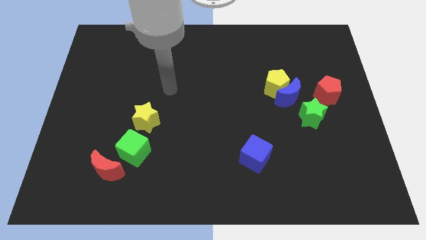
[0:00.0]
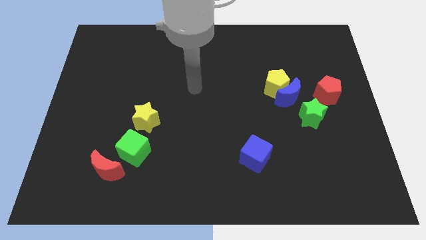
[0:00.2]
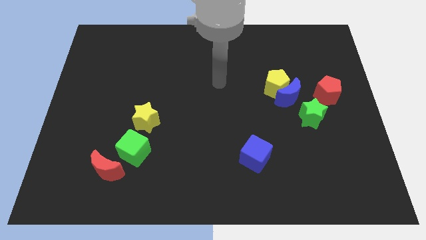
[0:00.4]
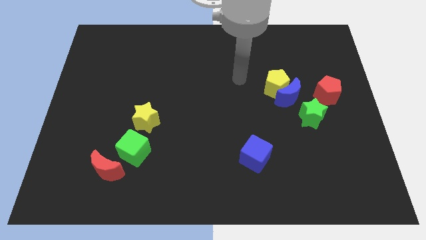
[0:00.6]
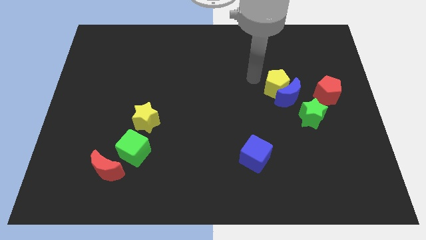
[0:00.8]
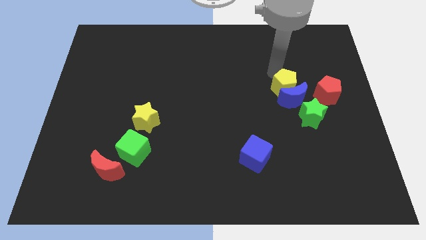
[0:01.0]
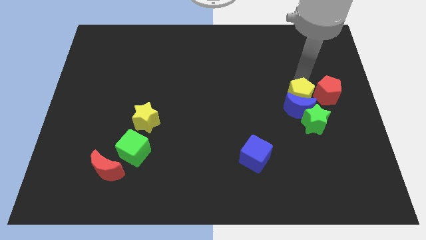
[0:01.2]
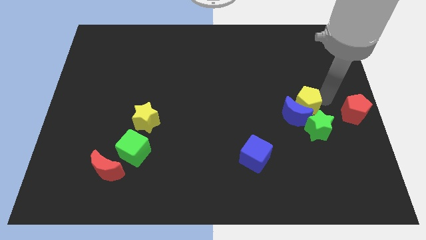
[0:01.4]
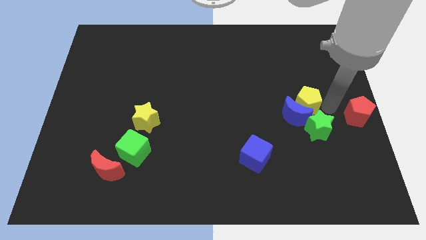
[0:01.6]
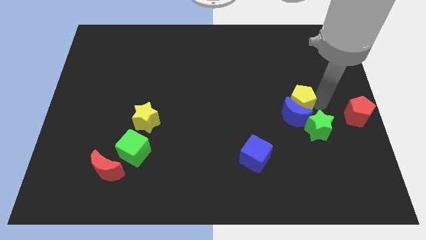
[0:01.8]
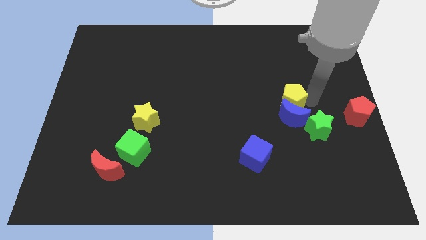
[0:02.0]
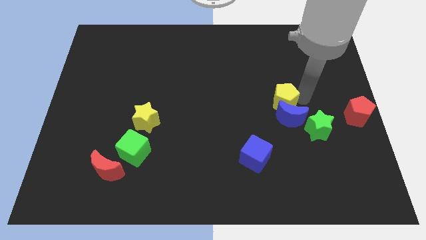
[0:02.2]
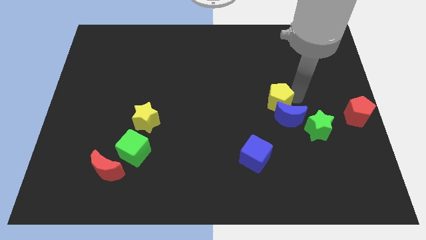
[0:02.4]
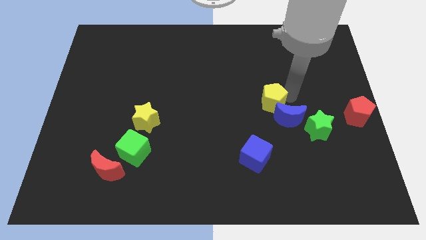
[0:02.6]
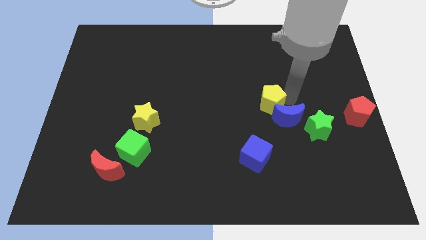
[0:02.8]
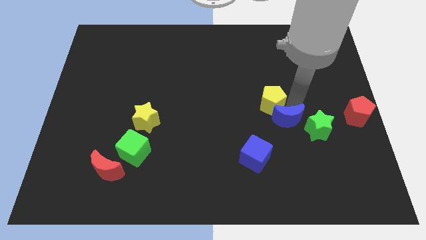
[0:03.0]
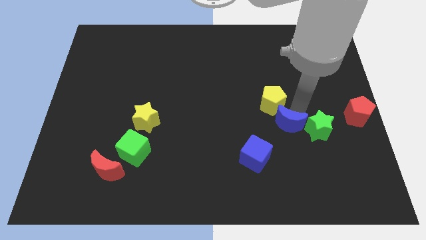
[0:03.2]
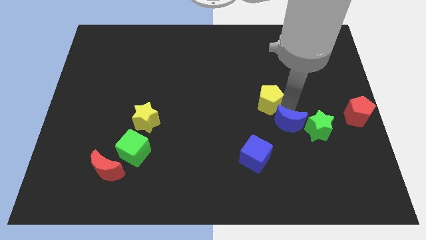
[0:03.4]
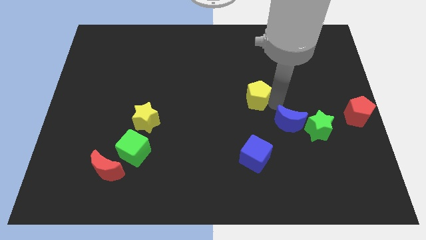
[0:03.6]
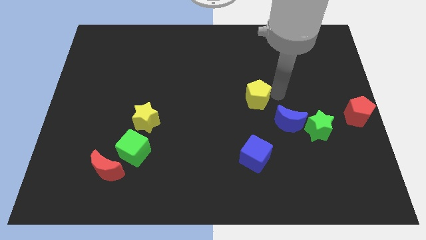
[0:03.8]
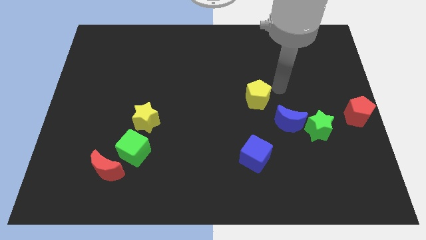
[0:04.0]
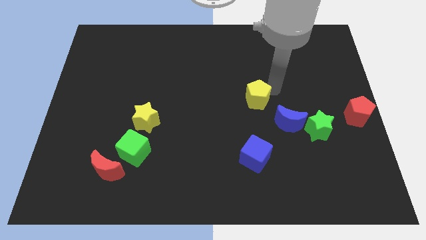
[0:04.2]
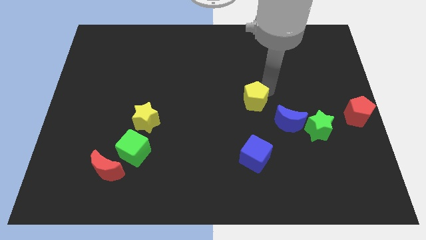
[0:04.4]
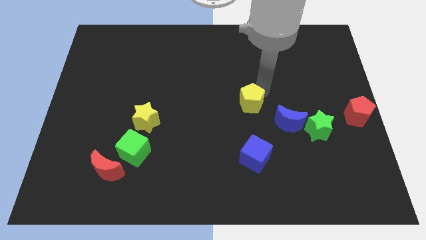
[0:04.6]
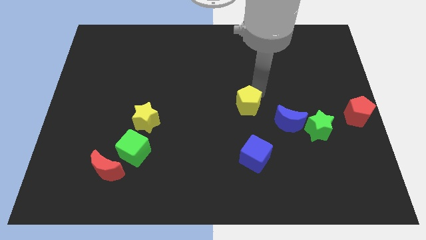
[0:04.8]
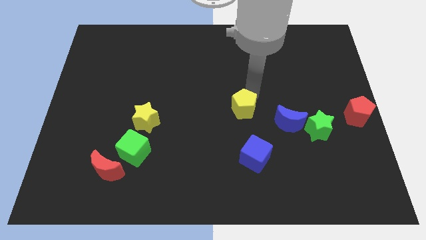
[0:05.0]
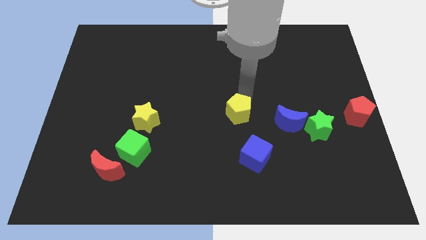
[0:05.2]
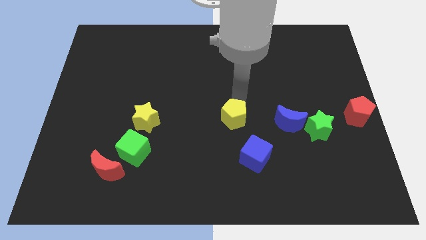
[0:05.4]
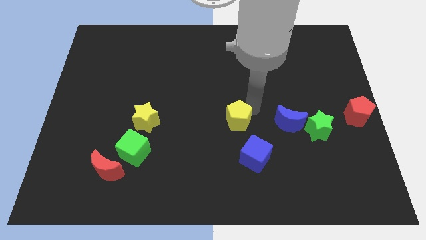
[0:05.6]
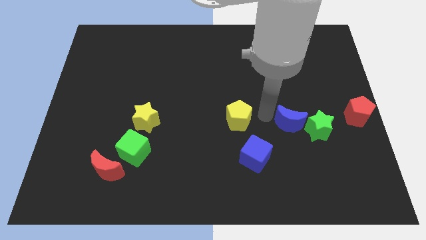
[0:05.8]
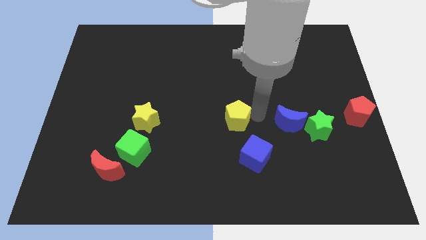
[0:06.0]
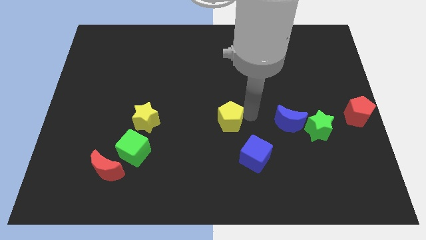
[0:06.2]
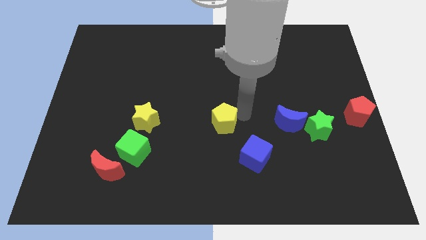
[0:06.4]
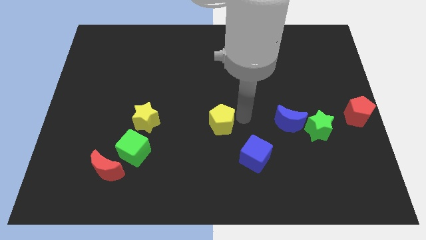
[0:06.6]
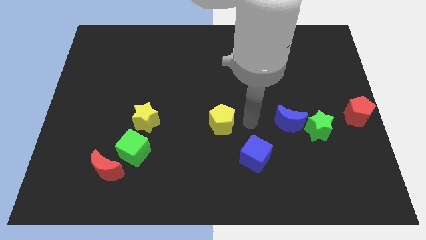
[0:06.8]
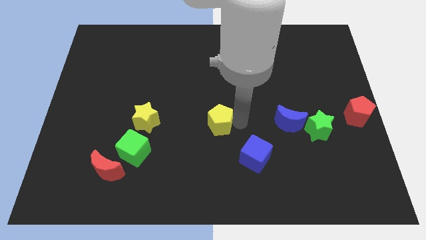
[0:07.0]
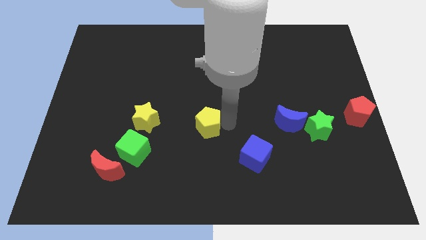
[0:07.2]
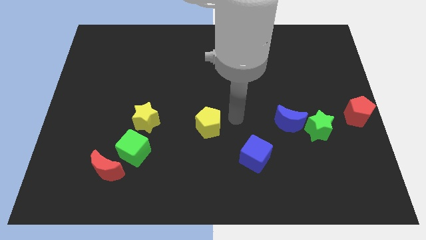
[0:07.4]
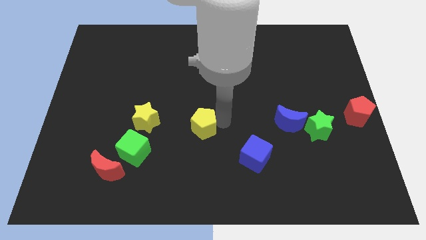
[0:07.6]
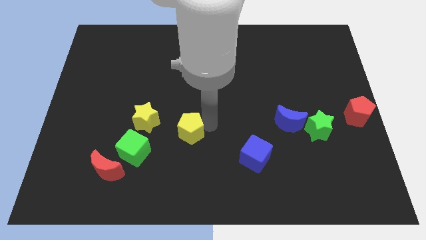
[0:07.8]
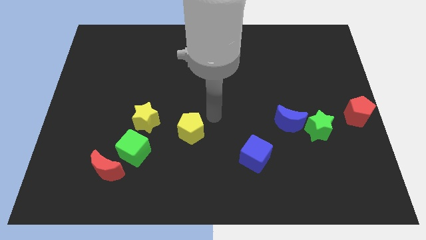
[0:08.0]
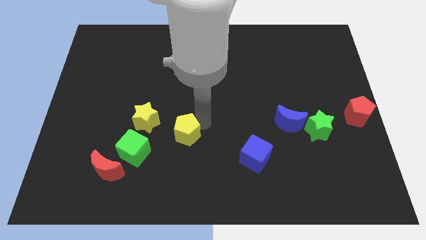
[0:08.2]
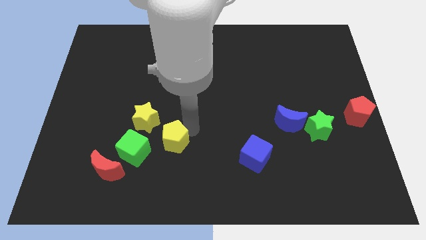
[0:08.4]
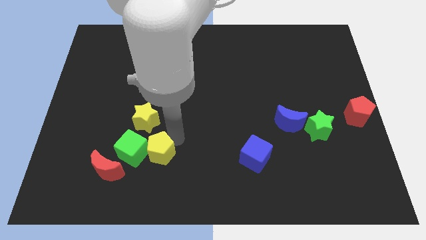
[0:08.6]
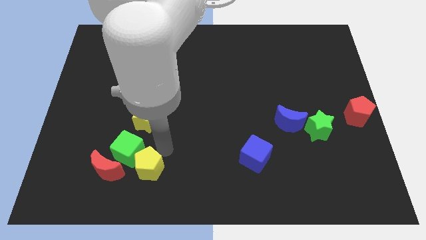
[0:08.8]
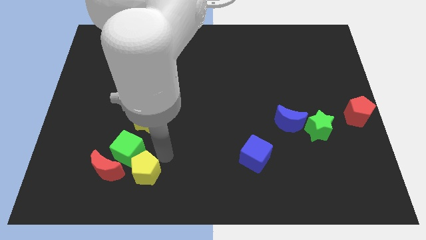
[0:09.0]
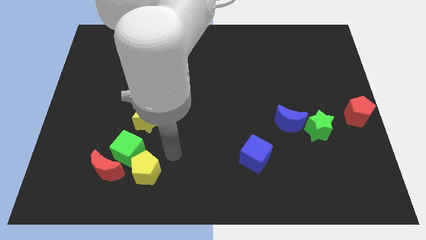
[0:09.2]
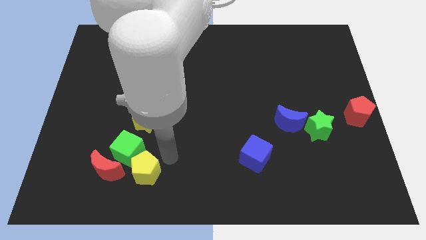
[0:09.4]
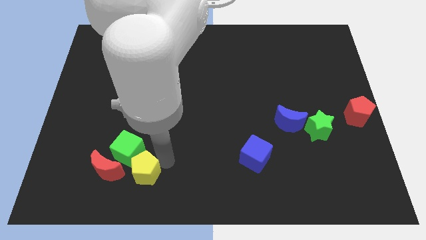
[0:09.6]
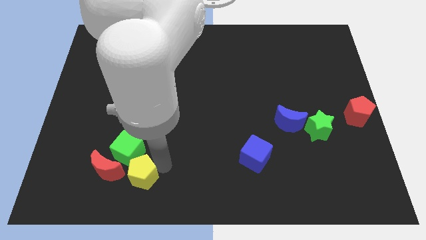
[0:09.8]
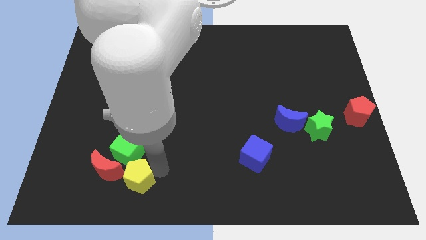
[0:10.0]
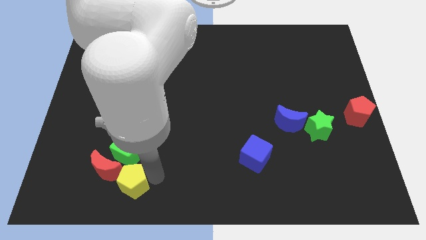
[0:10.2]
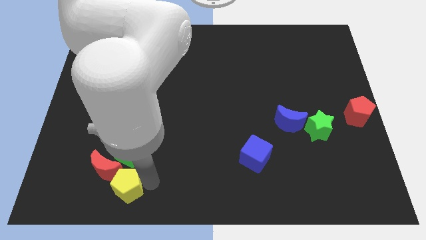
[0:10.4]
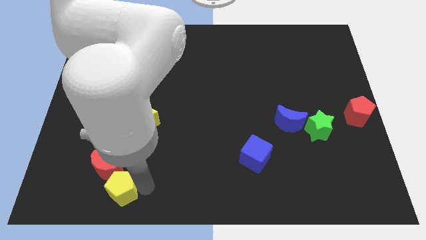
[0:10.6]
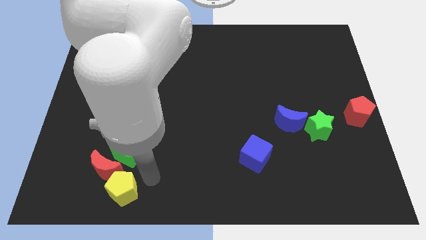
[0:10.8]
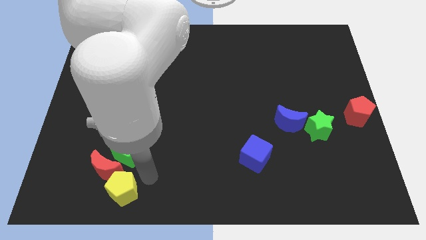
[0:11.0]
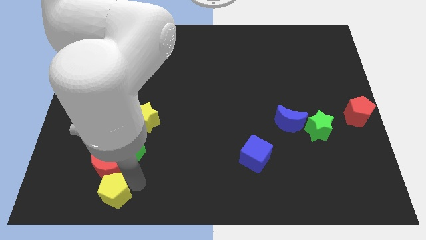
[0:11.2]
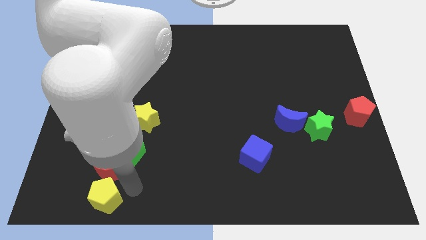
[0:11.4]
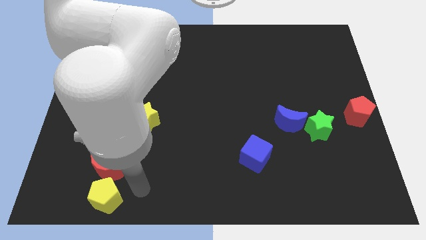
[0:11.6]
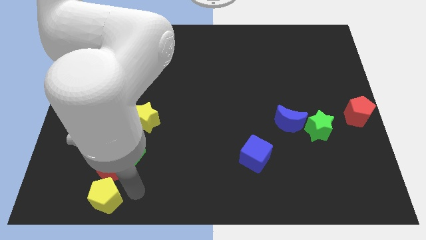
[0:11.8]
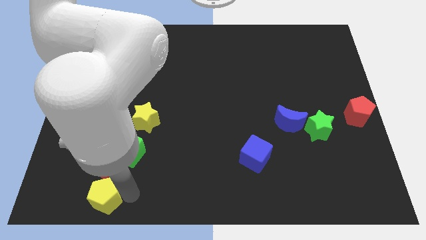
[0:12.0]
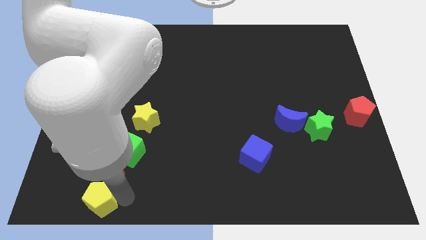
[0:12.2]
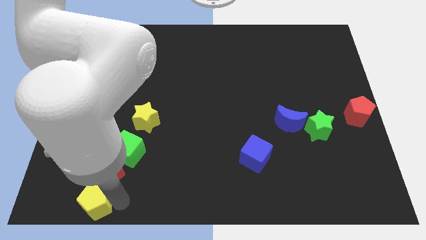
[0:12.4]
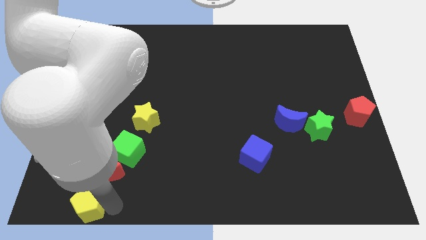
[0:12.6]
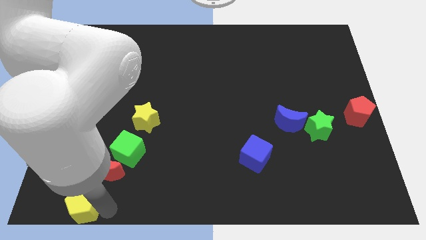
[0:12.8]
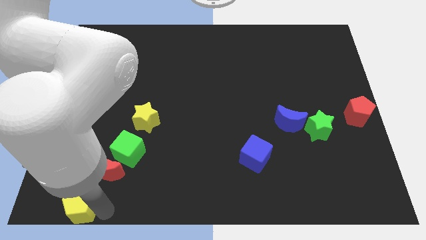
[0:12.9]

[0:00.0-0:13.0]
move the yellow pentagon to the bottom left corner

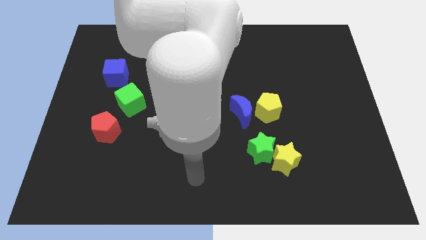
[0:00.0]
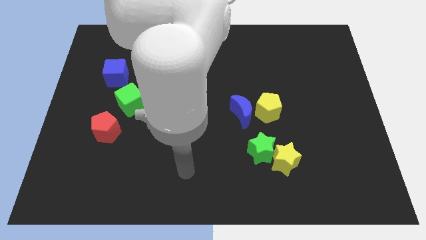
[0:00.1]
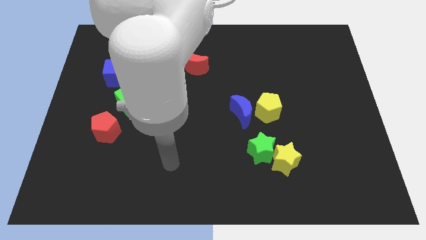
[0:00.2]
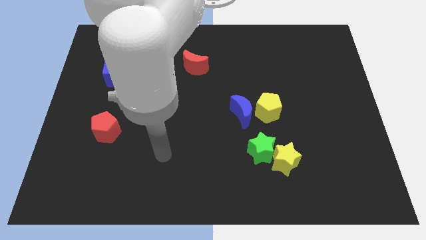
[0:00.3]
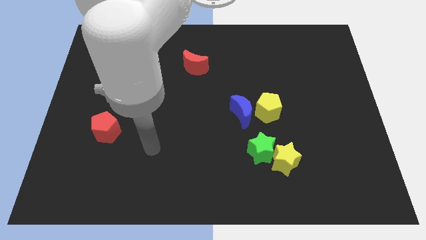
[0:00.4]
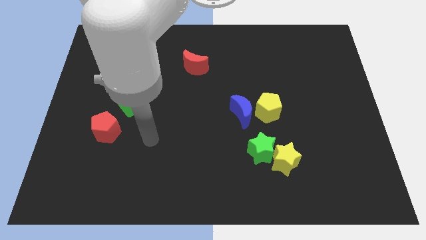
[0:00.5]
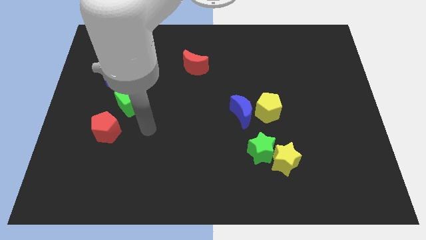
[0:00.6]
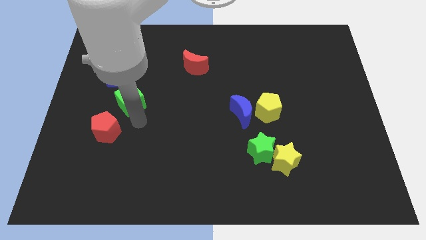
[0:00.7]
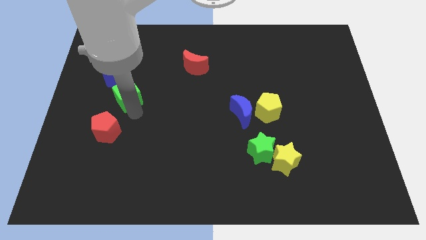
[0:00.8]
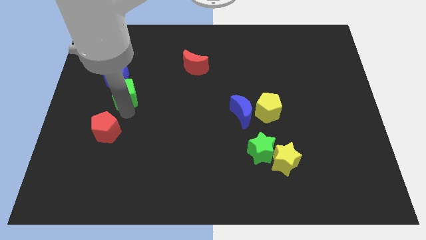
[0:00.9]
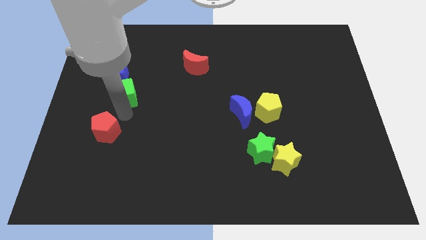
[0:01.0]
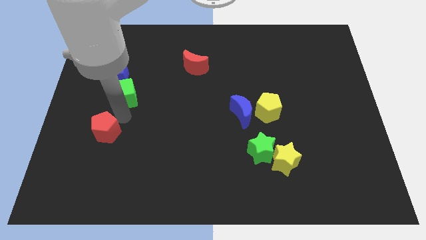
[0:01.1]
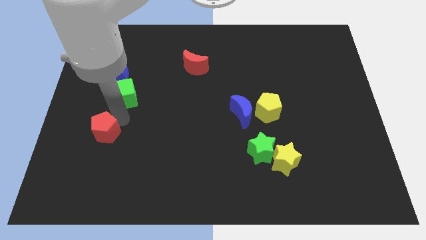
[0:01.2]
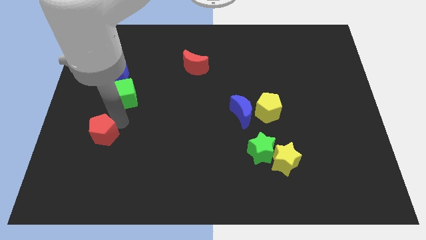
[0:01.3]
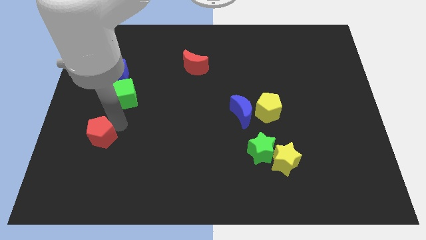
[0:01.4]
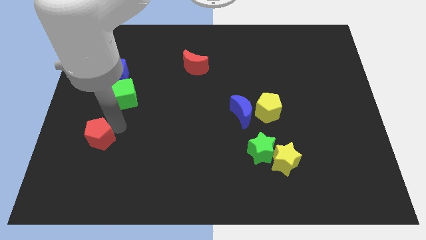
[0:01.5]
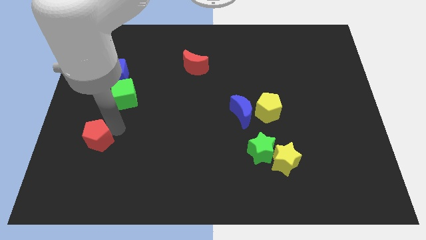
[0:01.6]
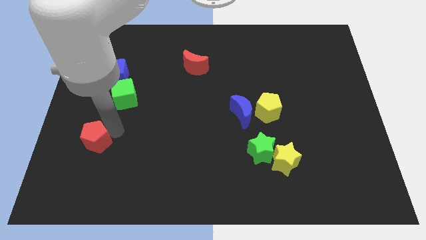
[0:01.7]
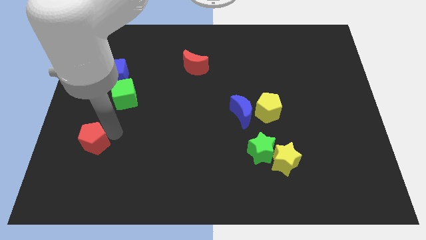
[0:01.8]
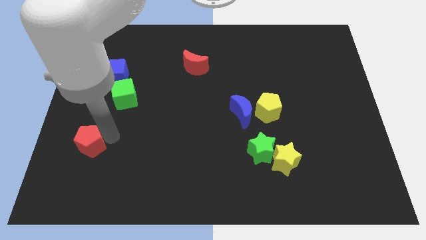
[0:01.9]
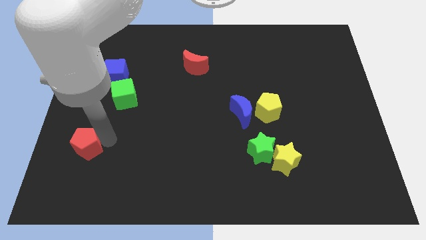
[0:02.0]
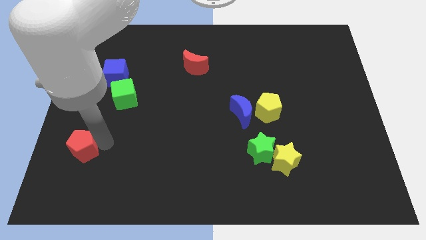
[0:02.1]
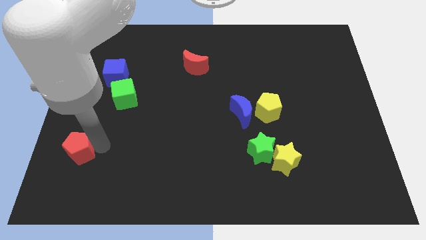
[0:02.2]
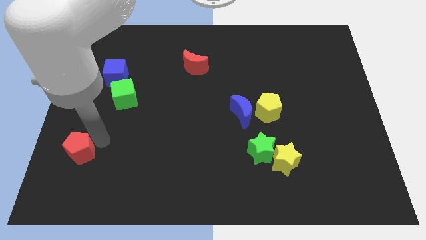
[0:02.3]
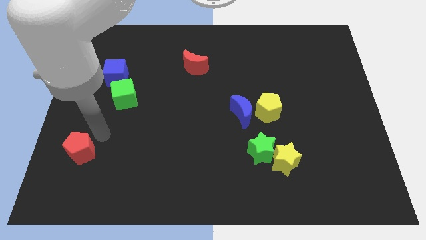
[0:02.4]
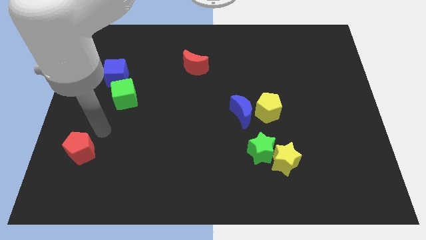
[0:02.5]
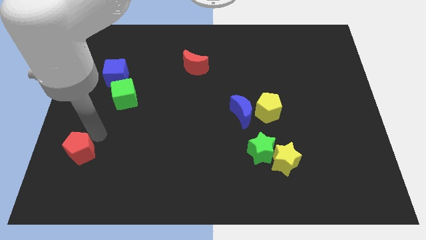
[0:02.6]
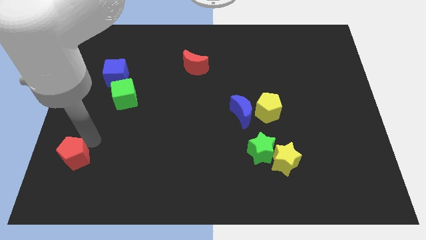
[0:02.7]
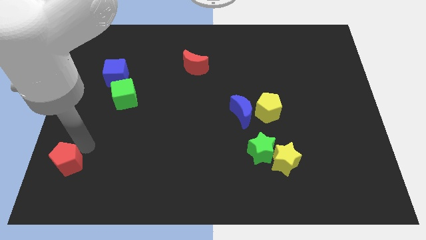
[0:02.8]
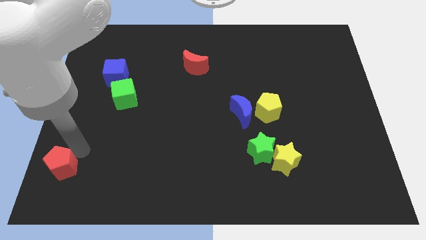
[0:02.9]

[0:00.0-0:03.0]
move the red pentagon to the lower left corner
